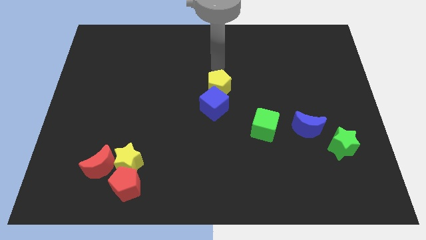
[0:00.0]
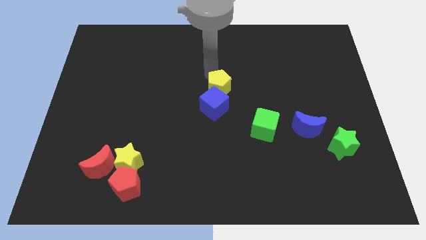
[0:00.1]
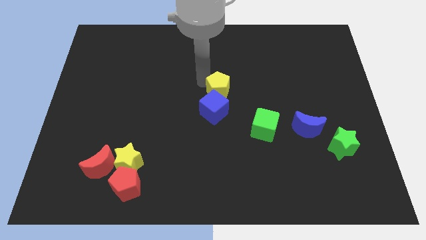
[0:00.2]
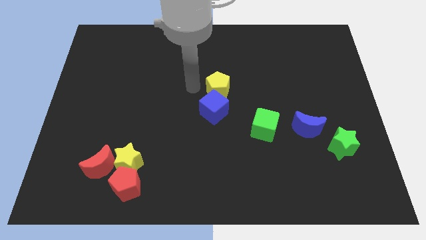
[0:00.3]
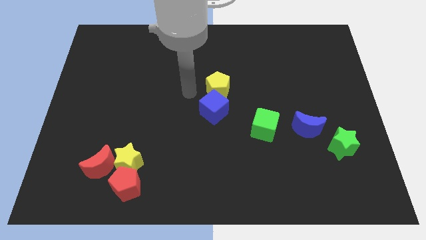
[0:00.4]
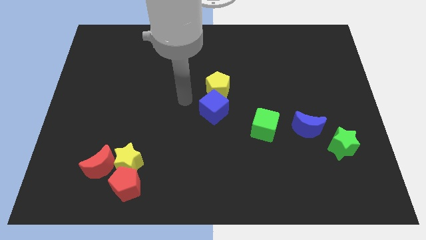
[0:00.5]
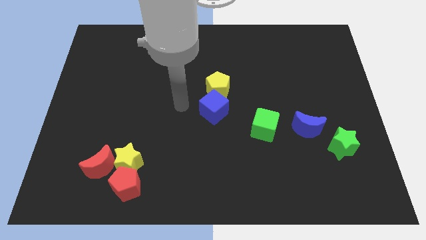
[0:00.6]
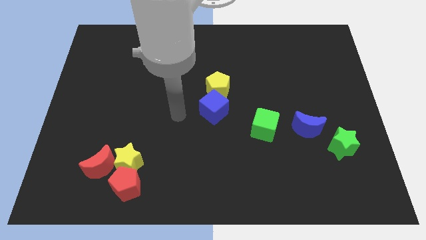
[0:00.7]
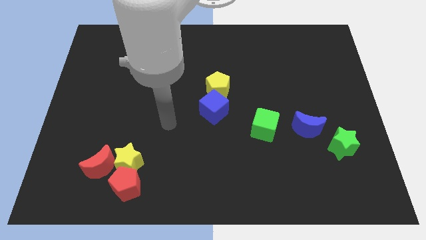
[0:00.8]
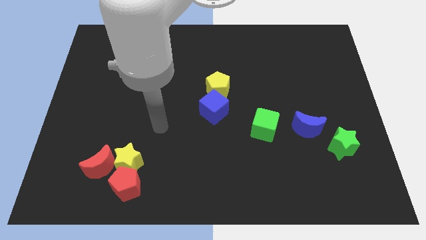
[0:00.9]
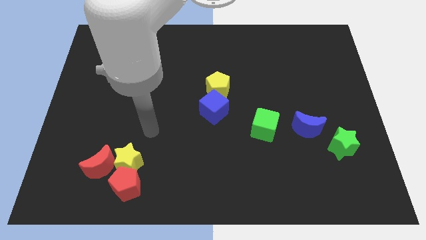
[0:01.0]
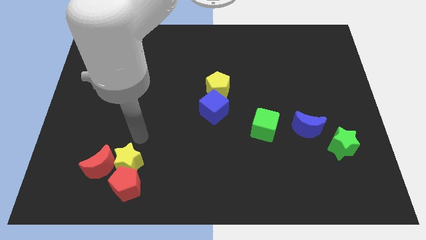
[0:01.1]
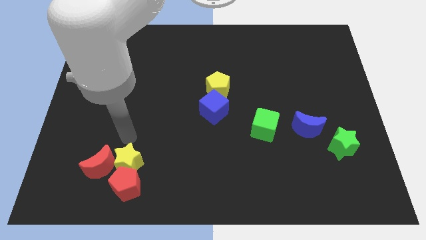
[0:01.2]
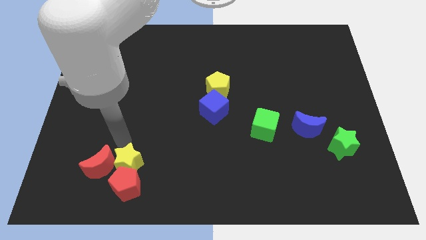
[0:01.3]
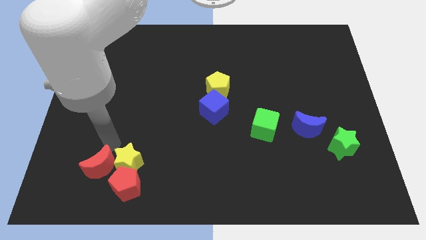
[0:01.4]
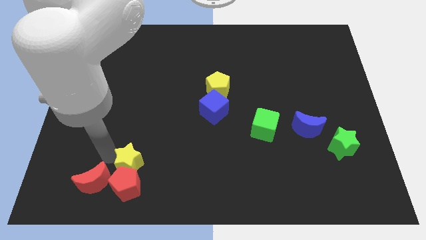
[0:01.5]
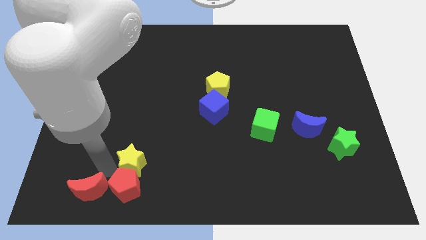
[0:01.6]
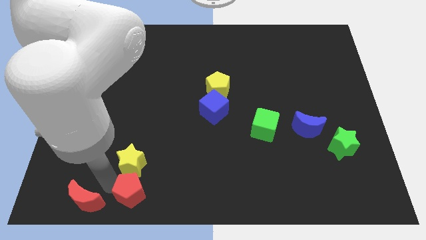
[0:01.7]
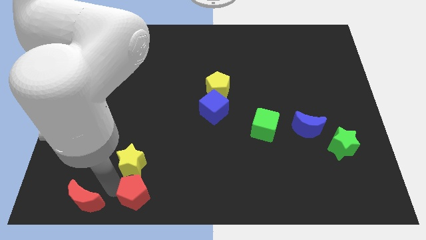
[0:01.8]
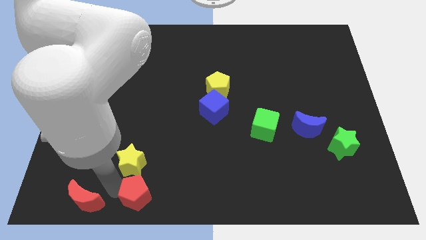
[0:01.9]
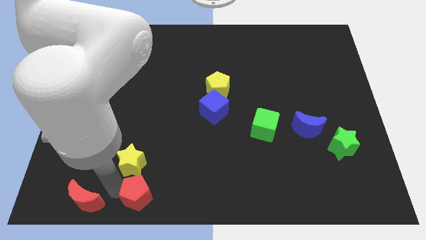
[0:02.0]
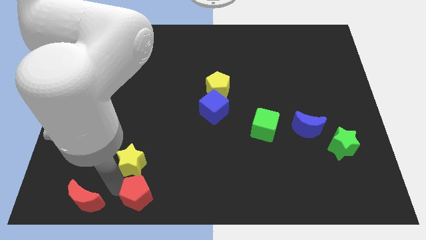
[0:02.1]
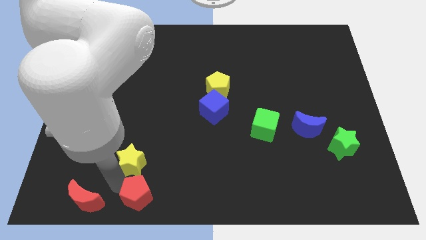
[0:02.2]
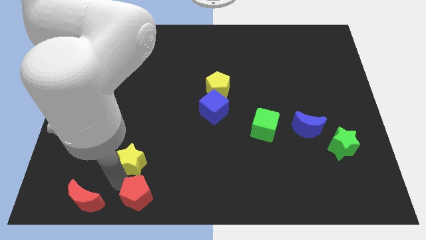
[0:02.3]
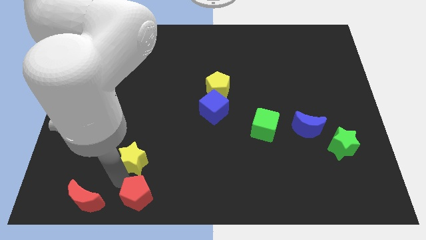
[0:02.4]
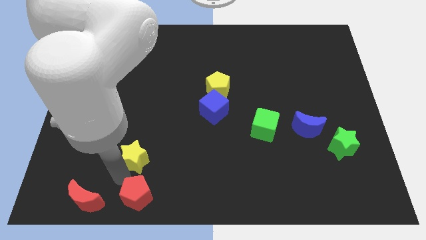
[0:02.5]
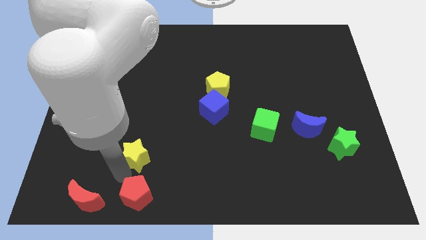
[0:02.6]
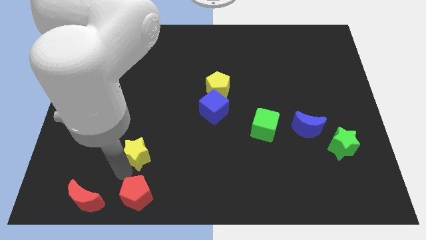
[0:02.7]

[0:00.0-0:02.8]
pull the yellow star apart from the red pentagon and red moon

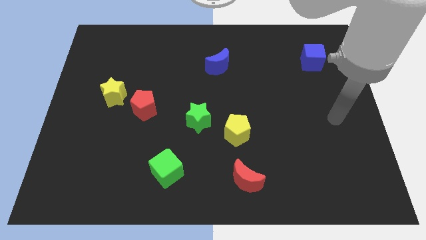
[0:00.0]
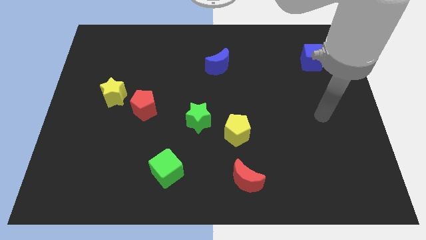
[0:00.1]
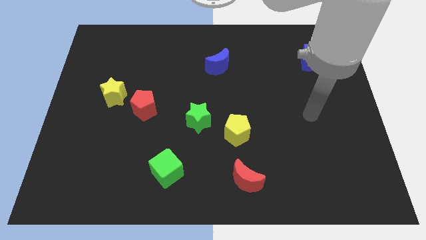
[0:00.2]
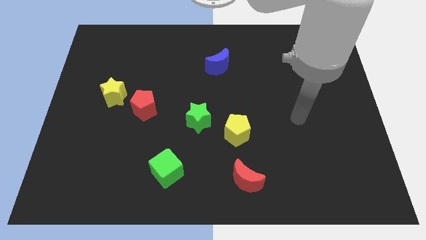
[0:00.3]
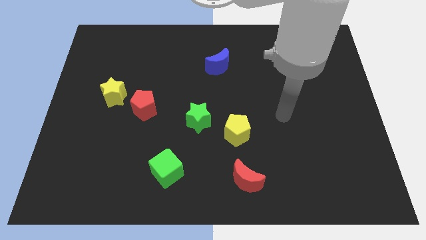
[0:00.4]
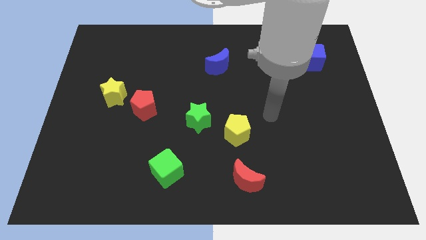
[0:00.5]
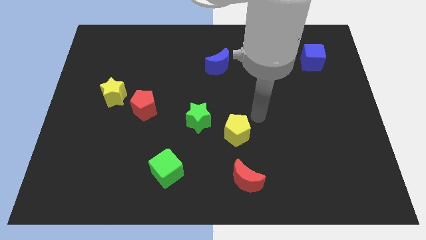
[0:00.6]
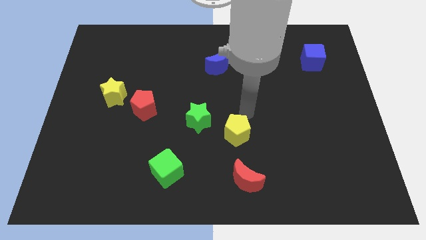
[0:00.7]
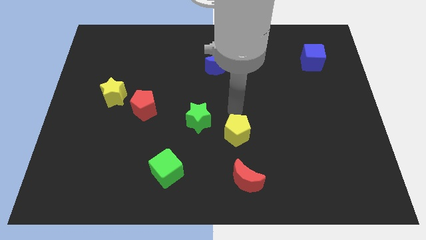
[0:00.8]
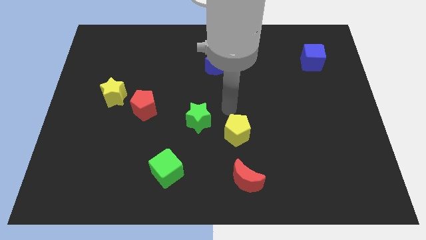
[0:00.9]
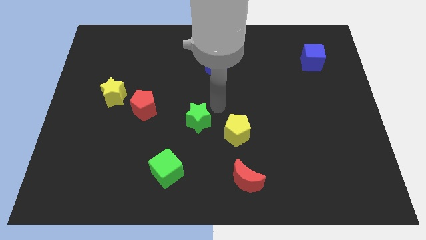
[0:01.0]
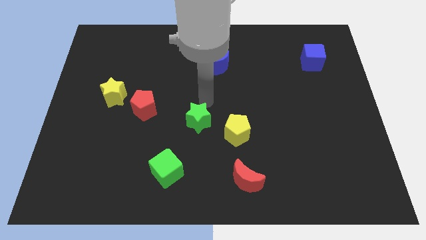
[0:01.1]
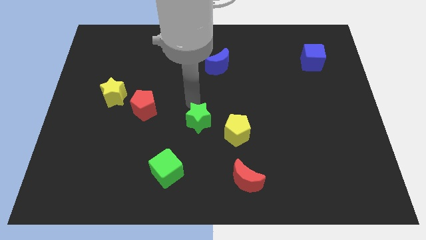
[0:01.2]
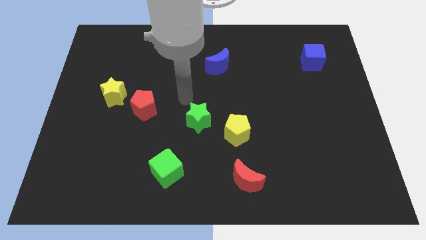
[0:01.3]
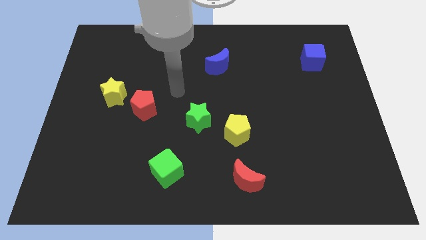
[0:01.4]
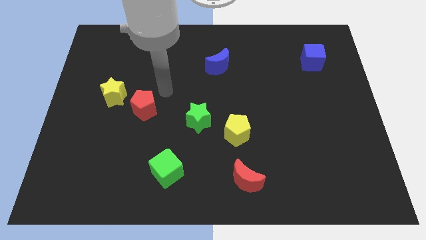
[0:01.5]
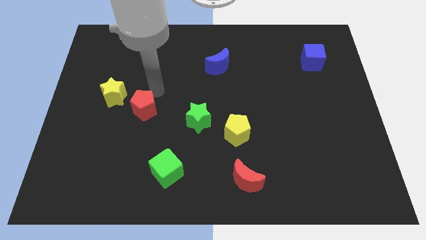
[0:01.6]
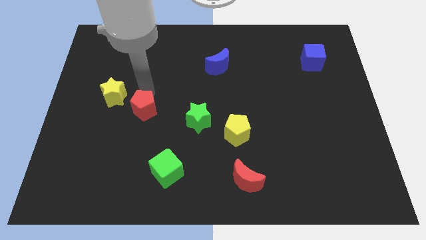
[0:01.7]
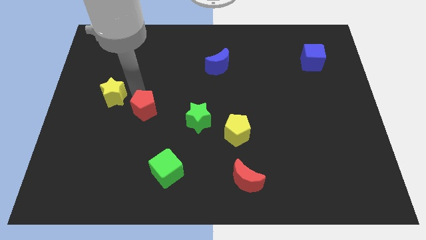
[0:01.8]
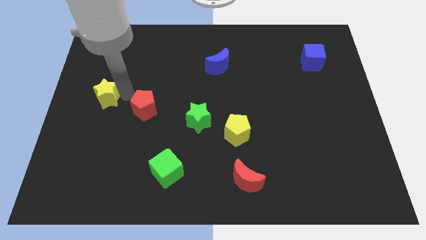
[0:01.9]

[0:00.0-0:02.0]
pull the red pentagon apart from the yellow star

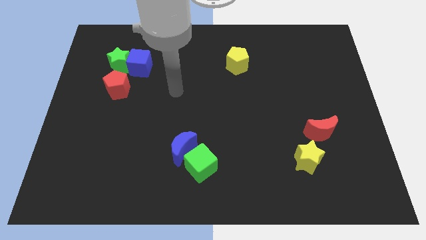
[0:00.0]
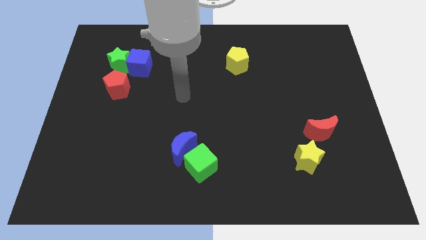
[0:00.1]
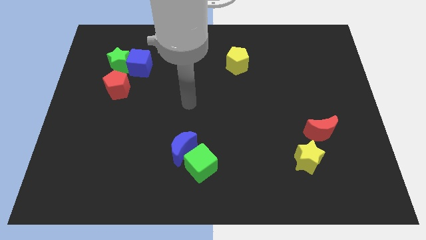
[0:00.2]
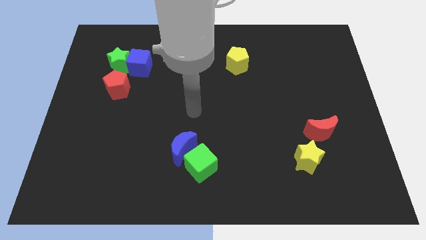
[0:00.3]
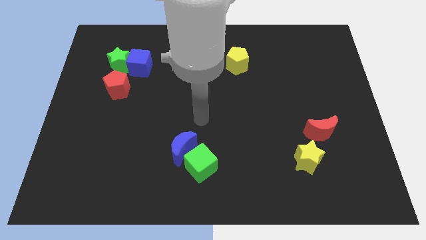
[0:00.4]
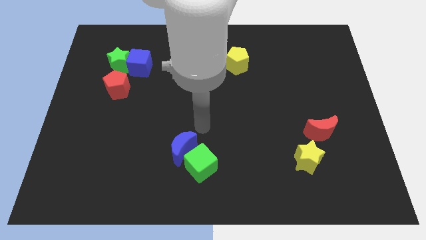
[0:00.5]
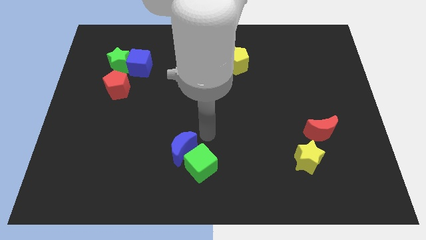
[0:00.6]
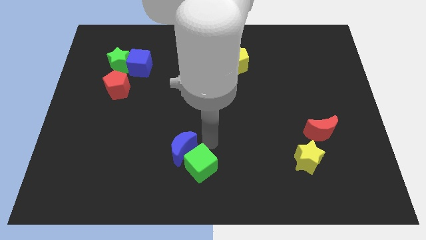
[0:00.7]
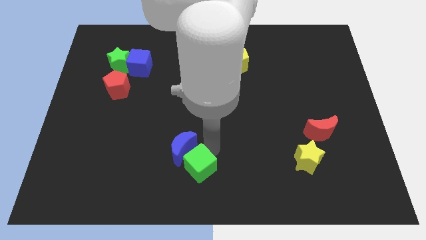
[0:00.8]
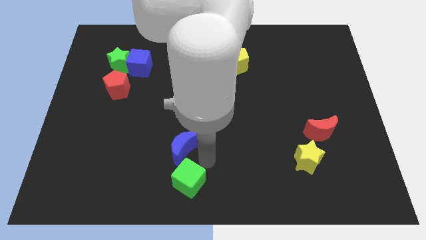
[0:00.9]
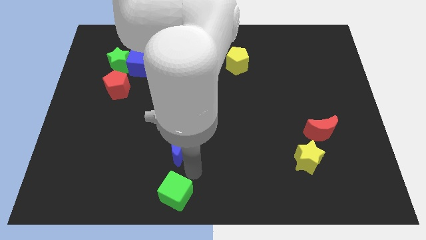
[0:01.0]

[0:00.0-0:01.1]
pull the blue moon apart from the green cube

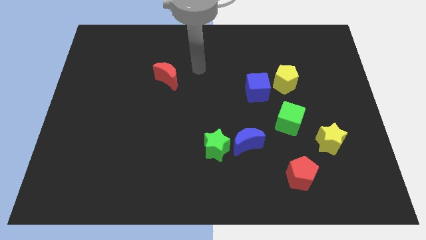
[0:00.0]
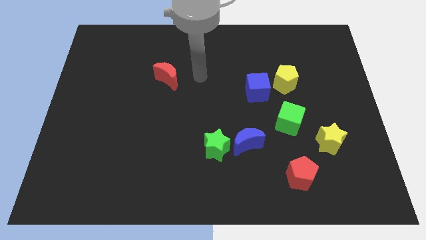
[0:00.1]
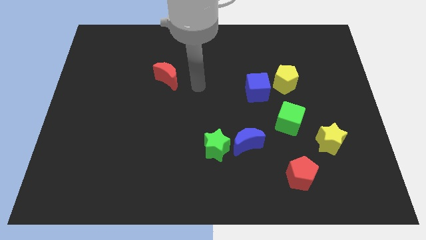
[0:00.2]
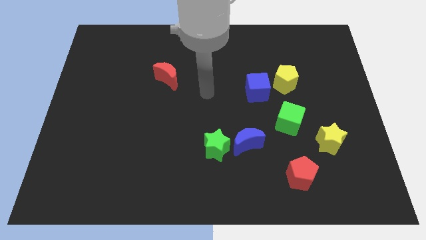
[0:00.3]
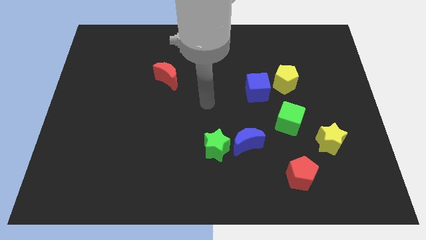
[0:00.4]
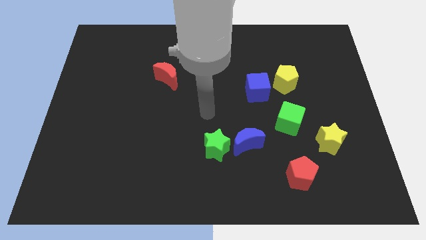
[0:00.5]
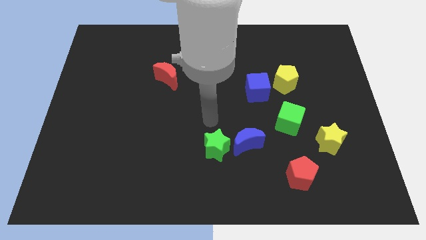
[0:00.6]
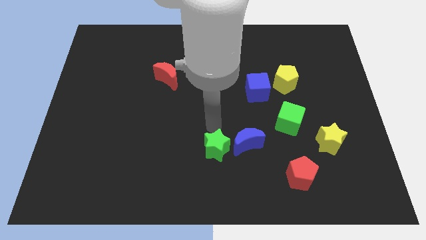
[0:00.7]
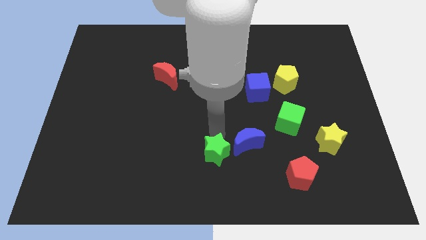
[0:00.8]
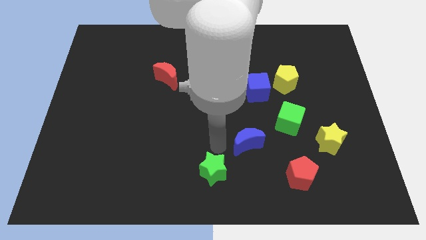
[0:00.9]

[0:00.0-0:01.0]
separate the blue moon from the green star

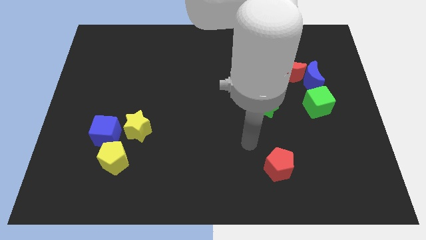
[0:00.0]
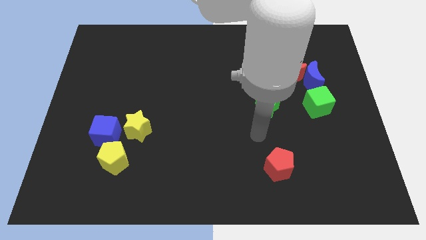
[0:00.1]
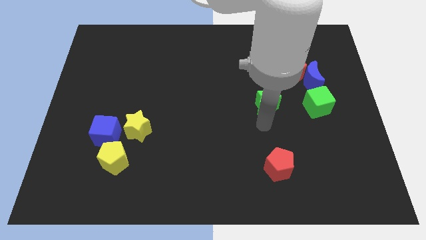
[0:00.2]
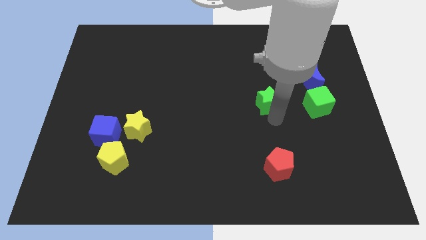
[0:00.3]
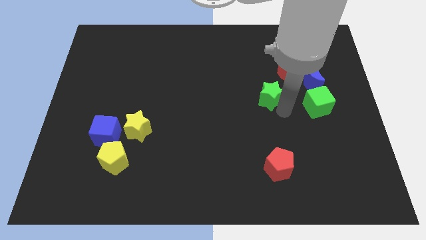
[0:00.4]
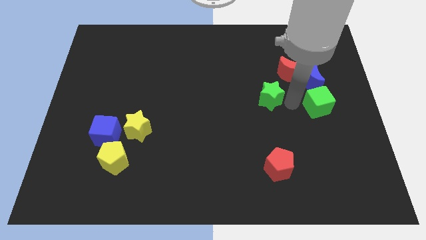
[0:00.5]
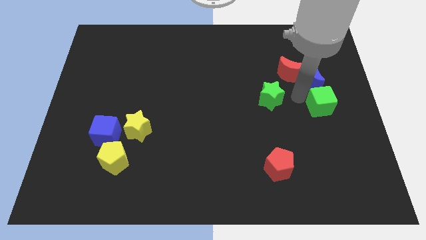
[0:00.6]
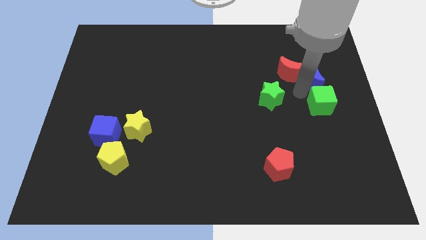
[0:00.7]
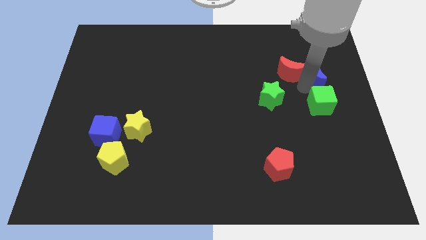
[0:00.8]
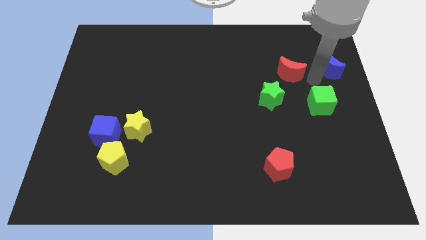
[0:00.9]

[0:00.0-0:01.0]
separate the red moon from the blue moon

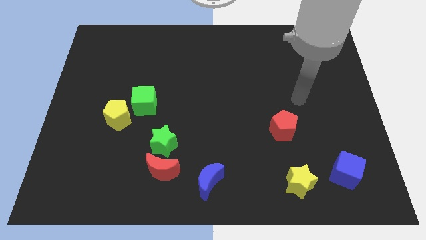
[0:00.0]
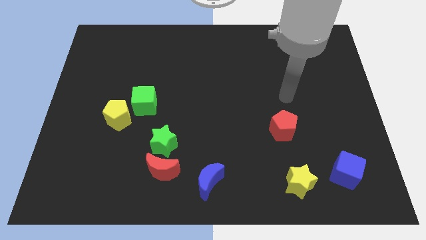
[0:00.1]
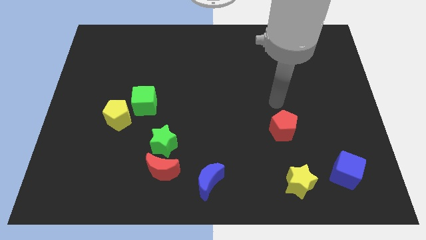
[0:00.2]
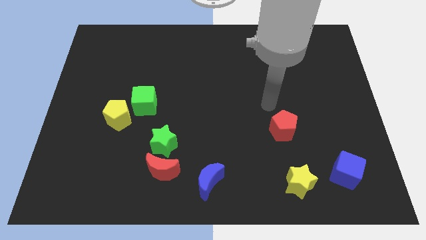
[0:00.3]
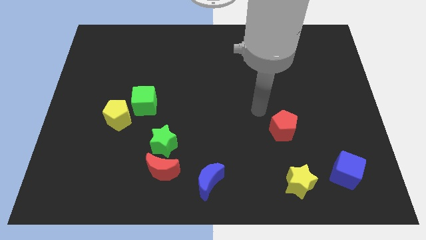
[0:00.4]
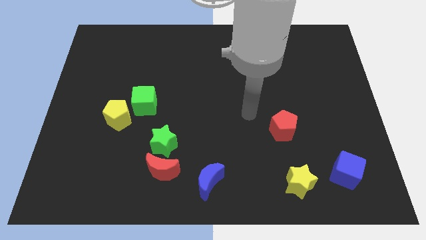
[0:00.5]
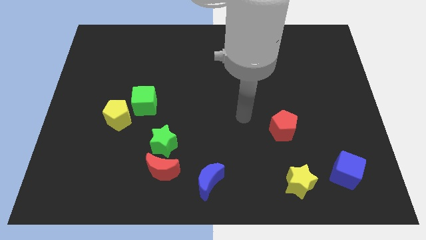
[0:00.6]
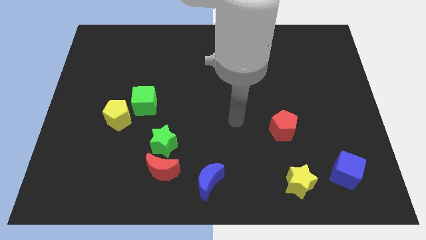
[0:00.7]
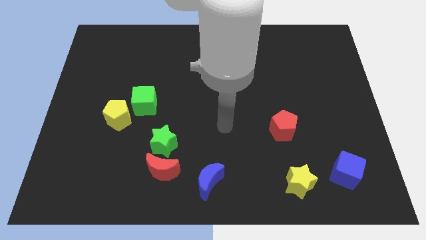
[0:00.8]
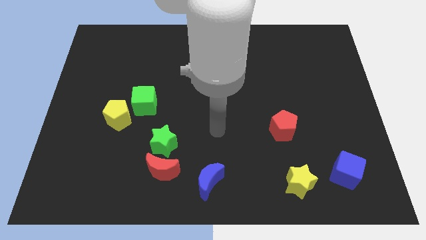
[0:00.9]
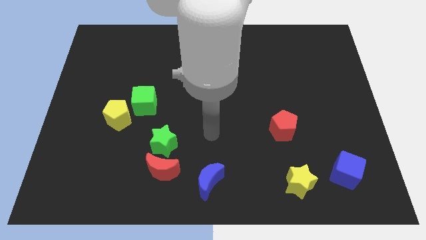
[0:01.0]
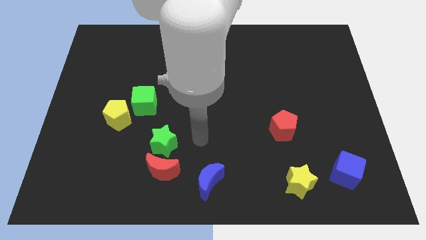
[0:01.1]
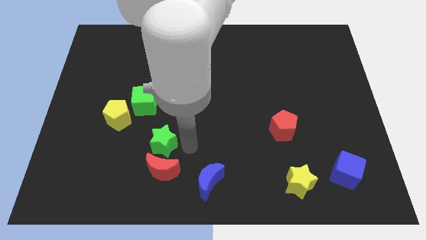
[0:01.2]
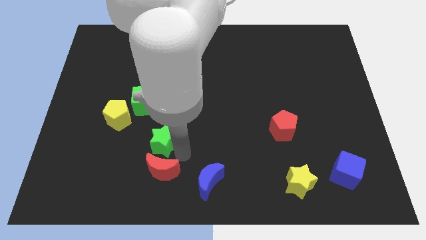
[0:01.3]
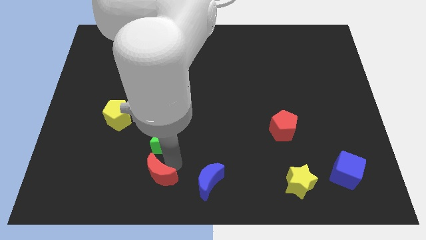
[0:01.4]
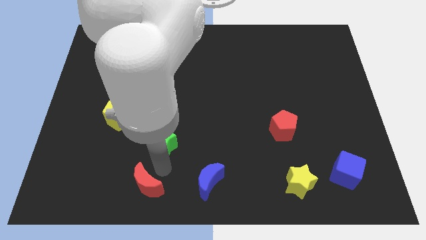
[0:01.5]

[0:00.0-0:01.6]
pull the green star apart from the red moon
